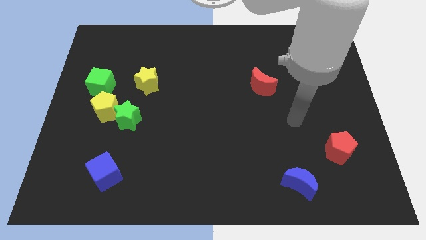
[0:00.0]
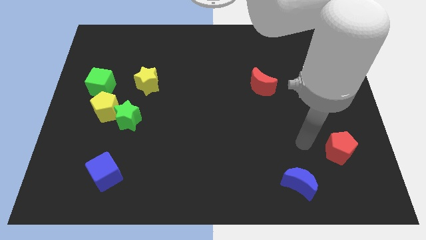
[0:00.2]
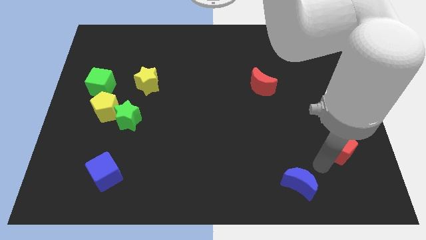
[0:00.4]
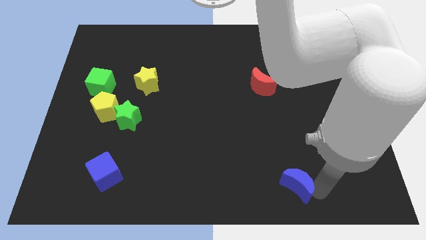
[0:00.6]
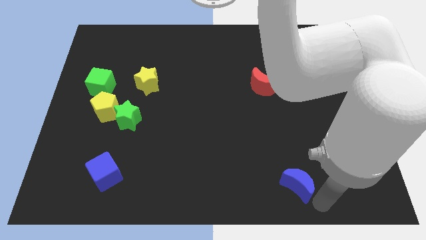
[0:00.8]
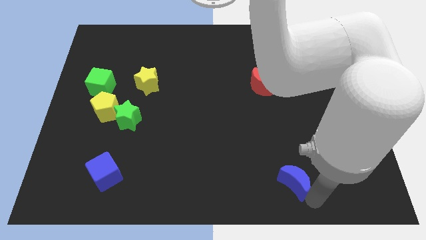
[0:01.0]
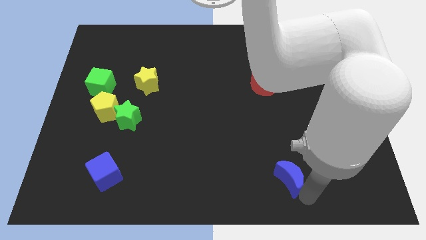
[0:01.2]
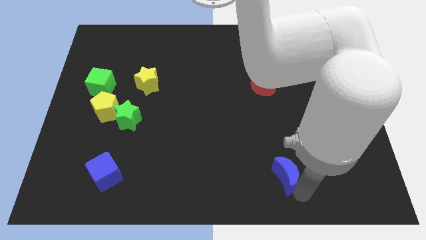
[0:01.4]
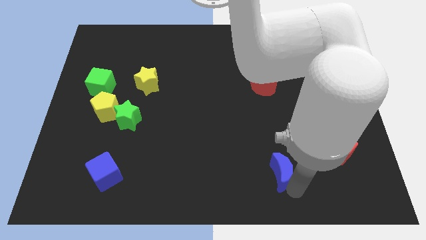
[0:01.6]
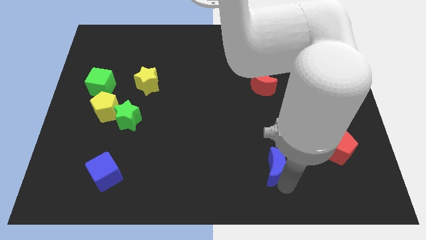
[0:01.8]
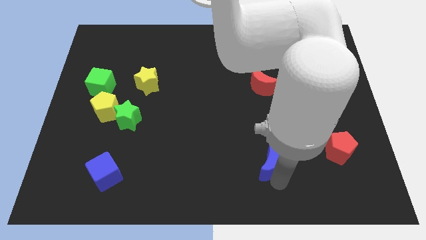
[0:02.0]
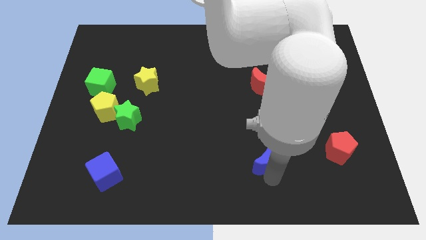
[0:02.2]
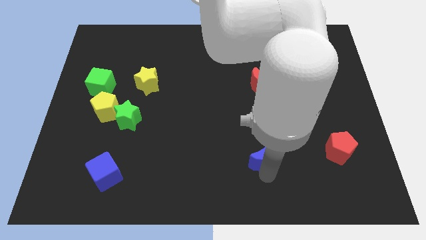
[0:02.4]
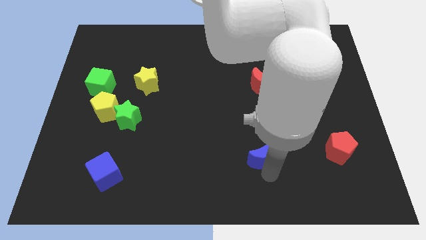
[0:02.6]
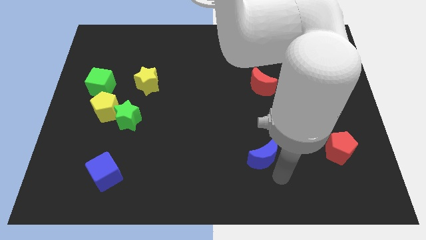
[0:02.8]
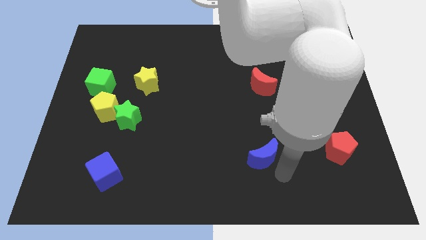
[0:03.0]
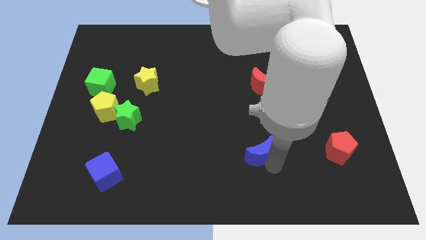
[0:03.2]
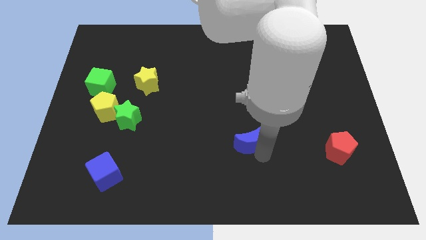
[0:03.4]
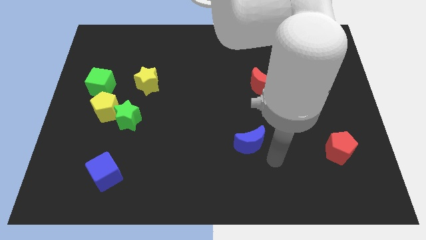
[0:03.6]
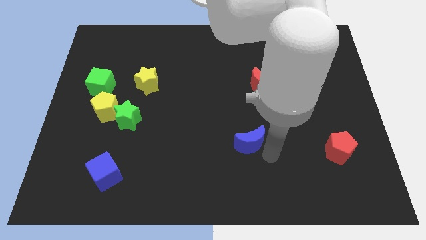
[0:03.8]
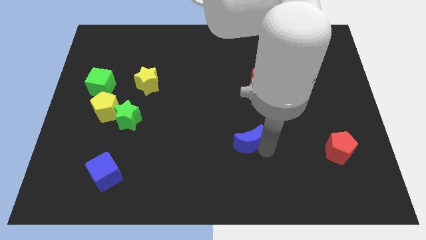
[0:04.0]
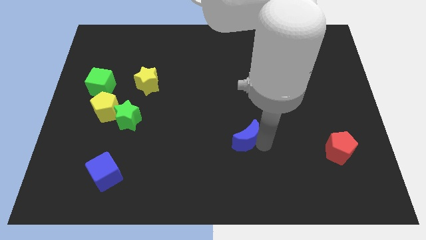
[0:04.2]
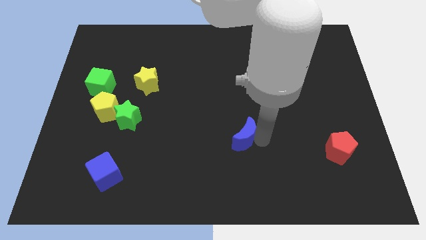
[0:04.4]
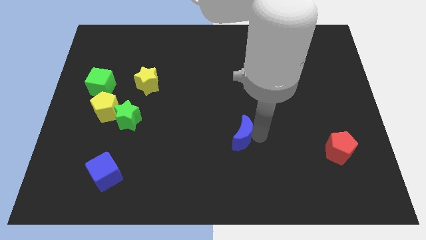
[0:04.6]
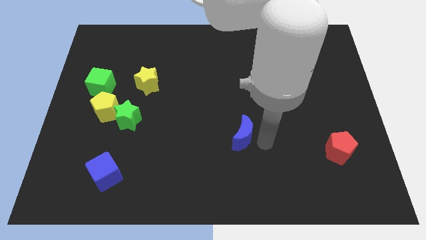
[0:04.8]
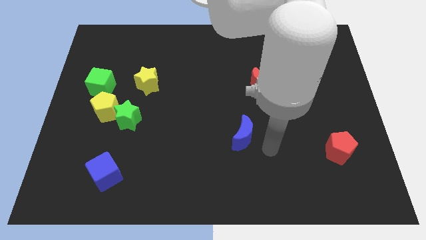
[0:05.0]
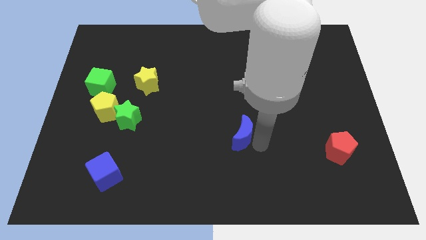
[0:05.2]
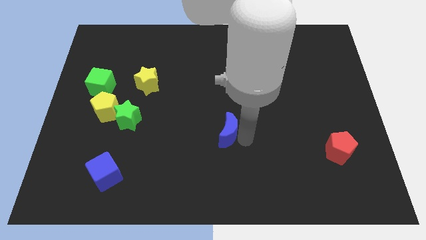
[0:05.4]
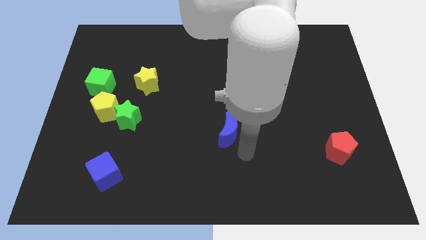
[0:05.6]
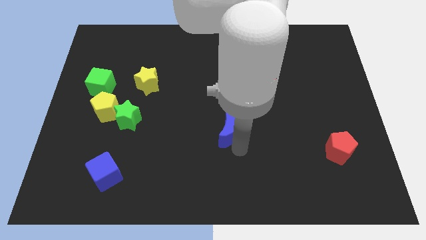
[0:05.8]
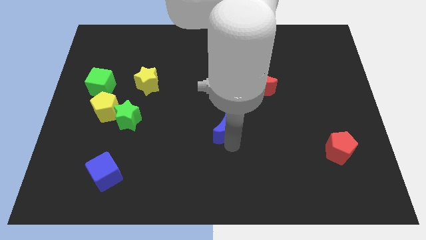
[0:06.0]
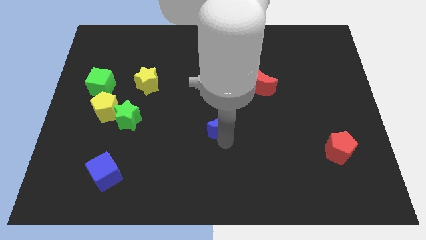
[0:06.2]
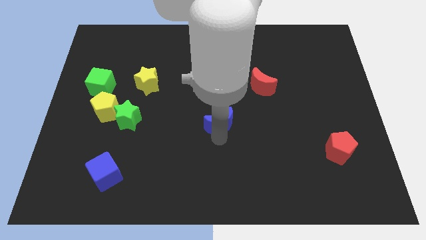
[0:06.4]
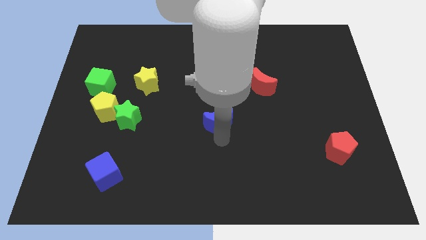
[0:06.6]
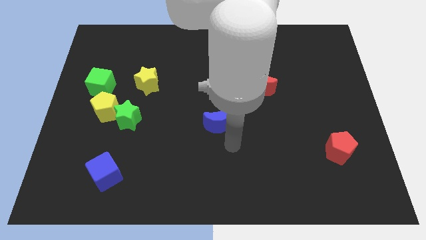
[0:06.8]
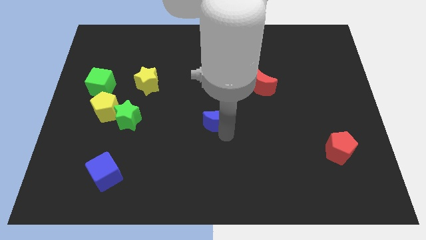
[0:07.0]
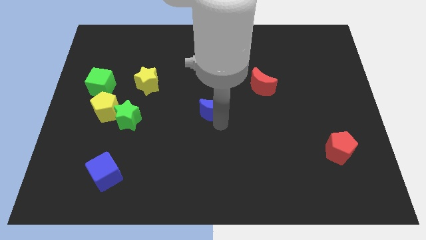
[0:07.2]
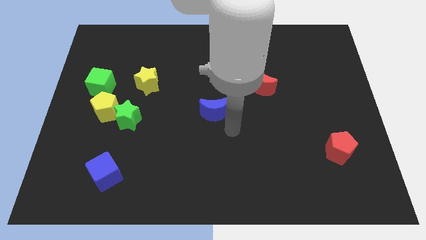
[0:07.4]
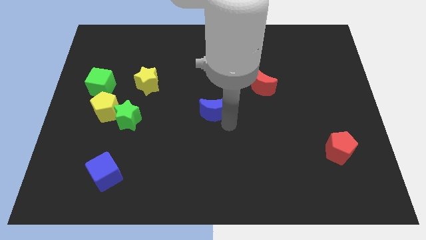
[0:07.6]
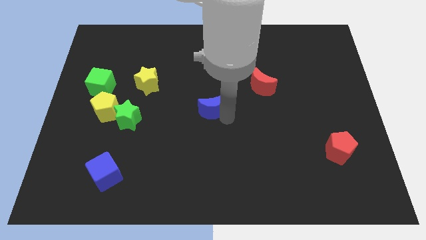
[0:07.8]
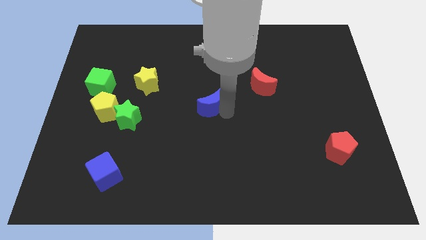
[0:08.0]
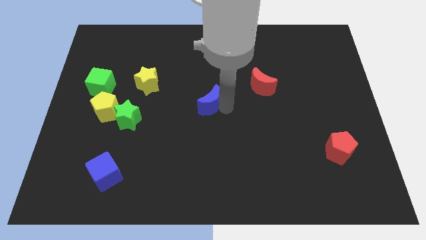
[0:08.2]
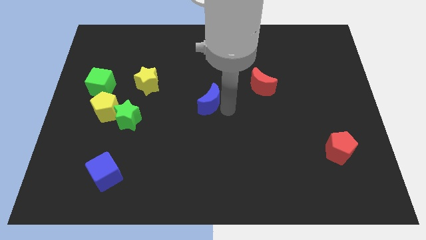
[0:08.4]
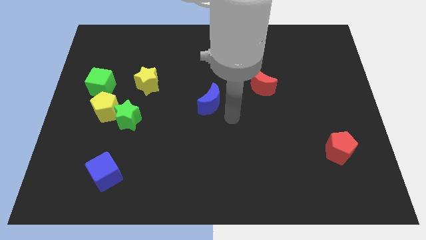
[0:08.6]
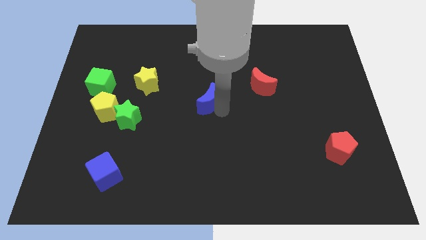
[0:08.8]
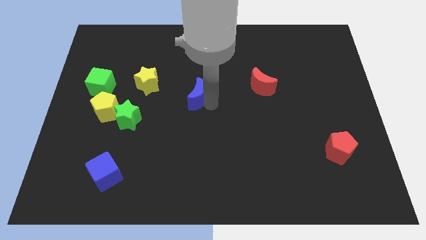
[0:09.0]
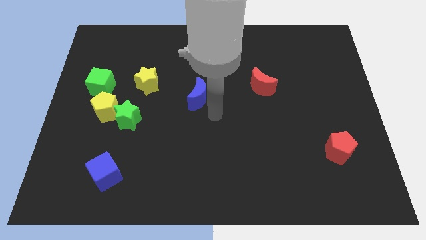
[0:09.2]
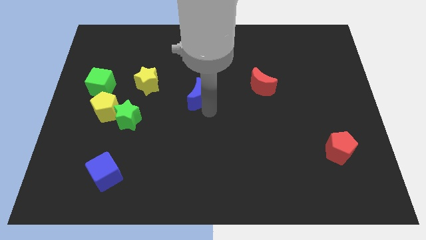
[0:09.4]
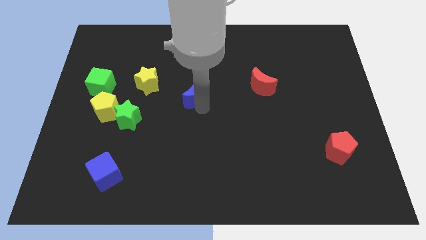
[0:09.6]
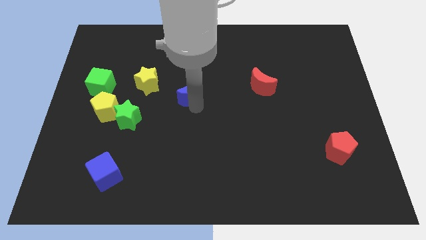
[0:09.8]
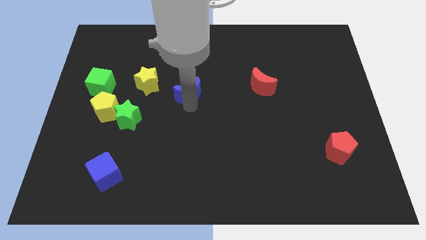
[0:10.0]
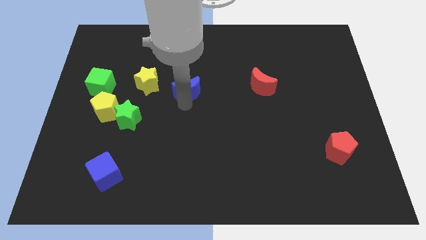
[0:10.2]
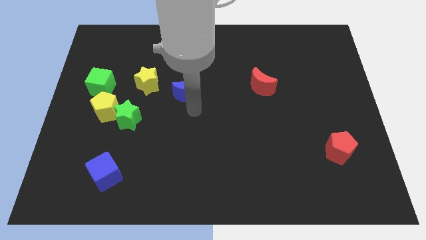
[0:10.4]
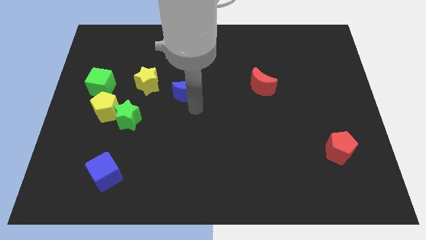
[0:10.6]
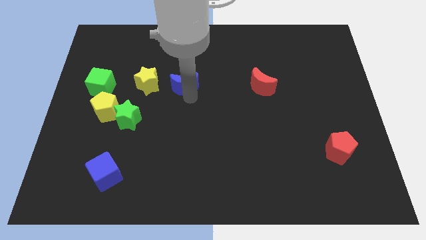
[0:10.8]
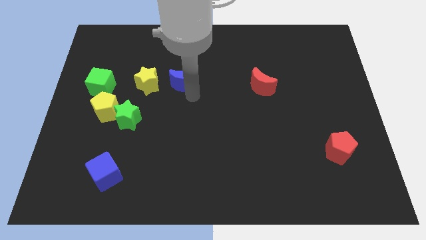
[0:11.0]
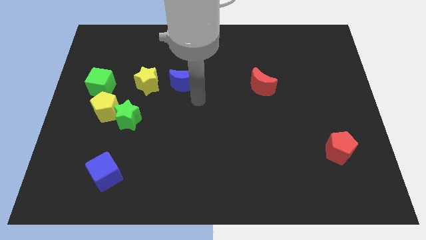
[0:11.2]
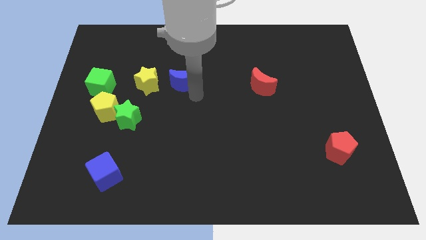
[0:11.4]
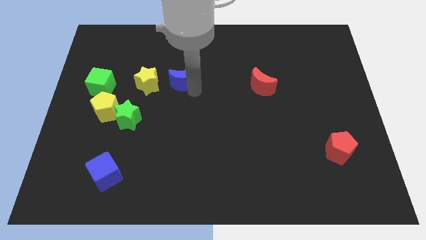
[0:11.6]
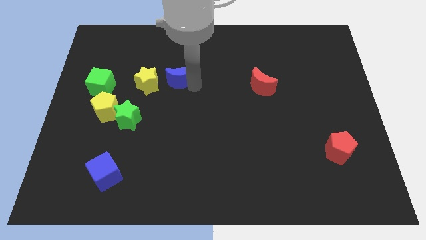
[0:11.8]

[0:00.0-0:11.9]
slide the blue moon to the top right side of the yellow star

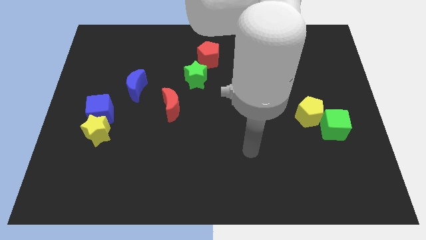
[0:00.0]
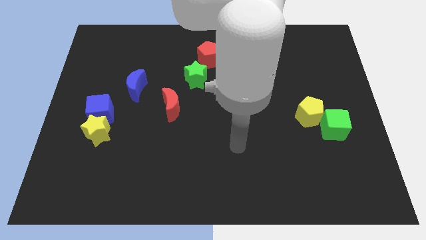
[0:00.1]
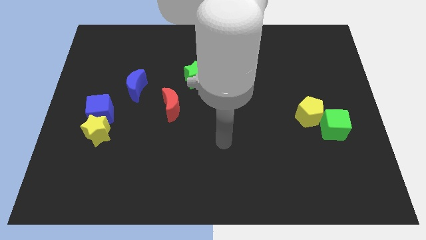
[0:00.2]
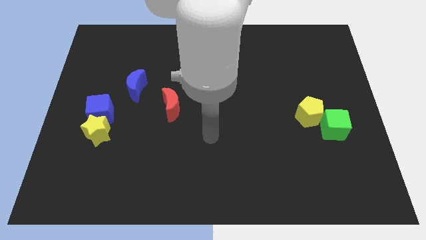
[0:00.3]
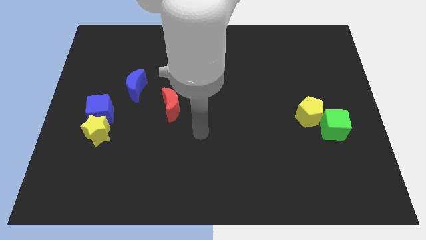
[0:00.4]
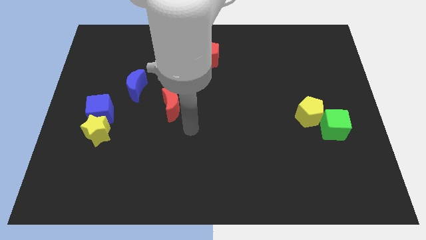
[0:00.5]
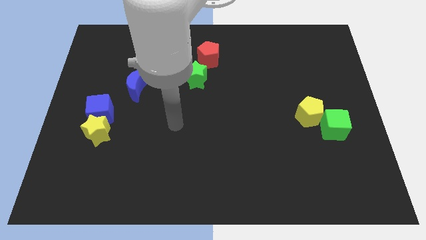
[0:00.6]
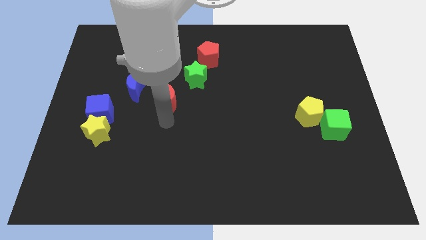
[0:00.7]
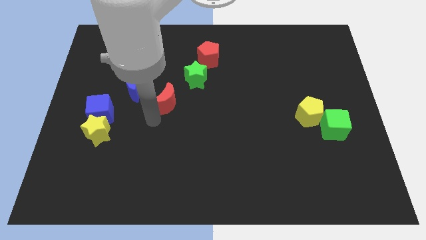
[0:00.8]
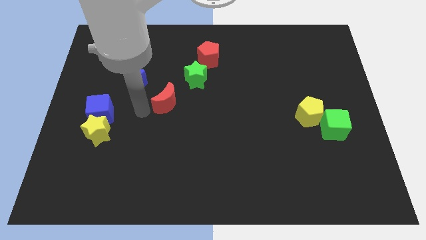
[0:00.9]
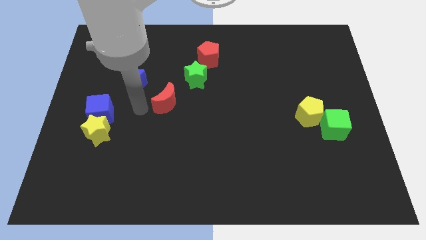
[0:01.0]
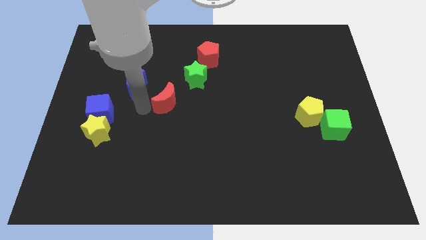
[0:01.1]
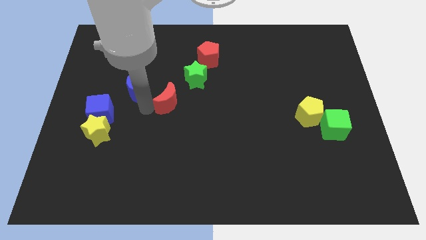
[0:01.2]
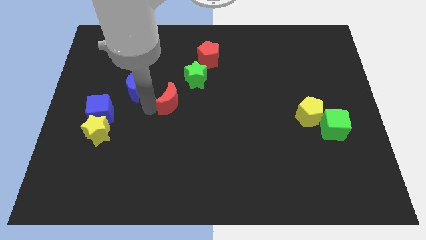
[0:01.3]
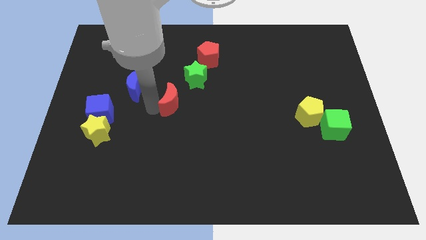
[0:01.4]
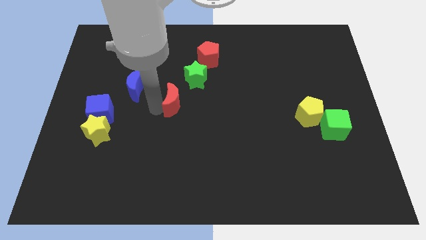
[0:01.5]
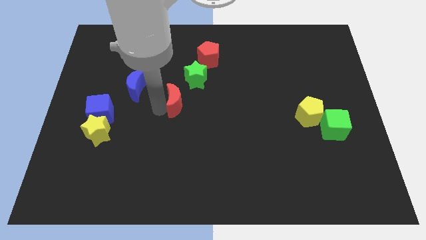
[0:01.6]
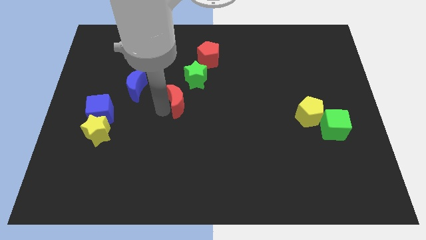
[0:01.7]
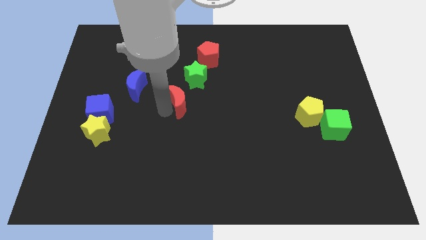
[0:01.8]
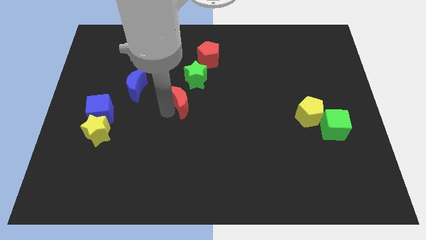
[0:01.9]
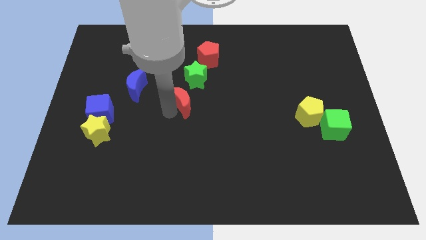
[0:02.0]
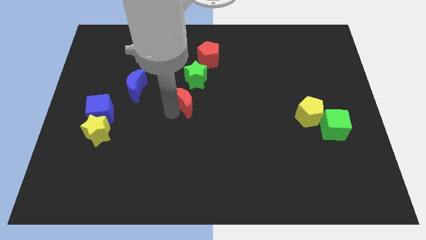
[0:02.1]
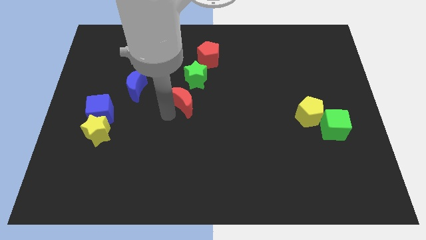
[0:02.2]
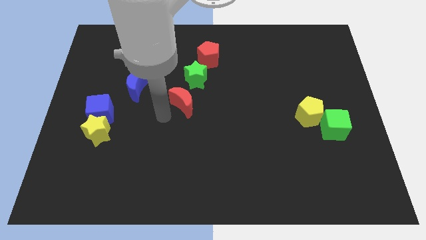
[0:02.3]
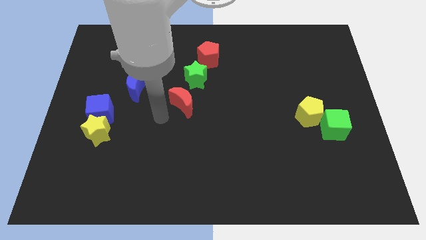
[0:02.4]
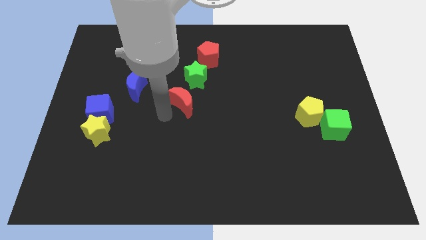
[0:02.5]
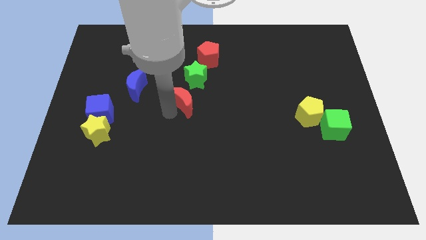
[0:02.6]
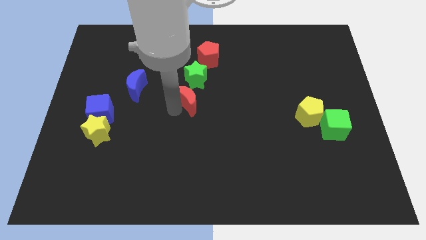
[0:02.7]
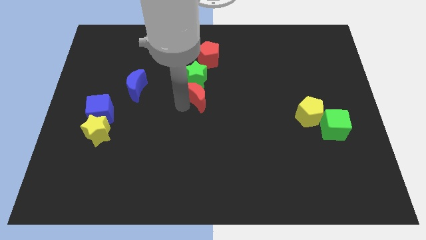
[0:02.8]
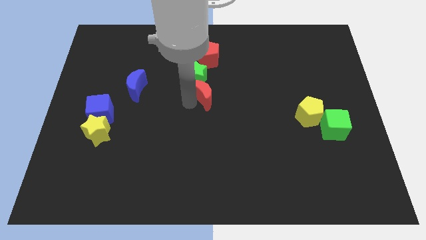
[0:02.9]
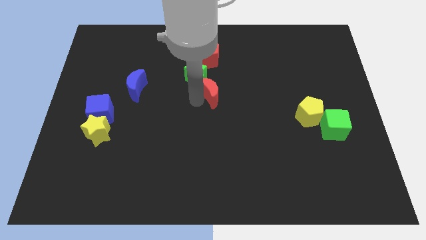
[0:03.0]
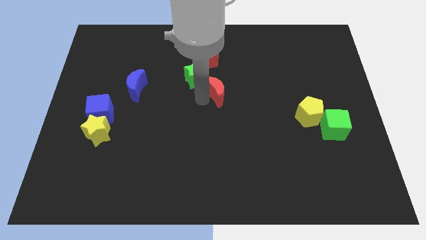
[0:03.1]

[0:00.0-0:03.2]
slide the red moon to the right side of the green star
